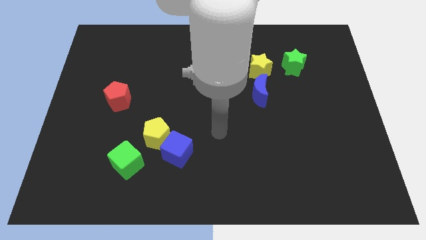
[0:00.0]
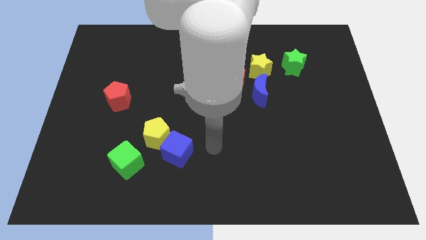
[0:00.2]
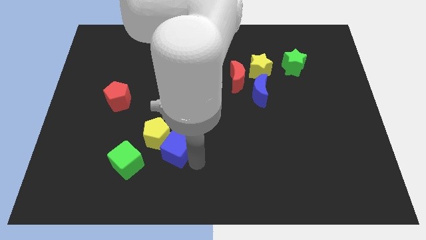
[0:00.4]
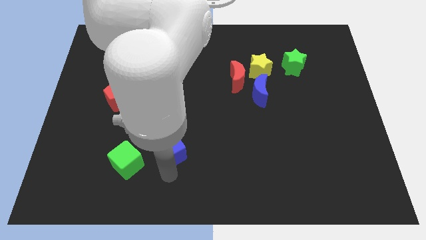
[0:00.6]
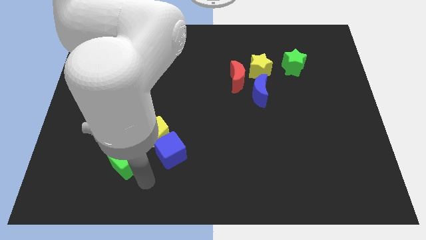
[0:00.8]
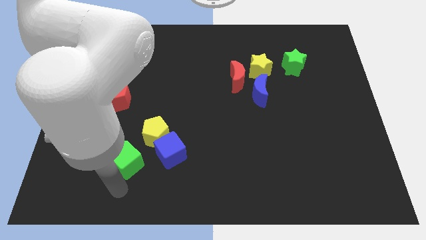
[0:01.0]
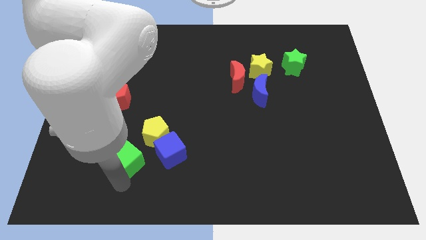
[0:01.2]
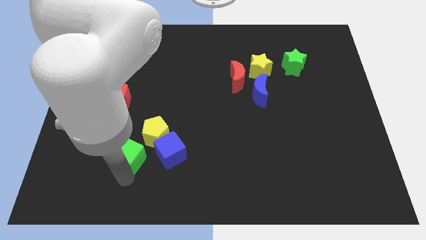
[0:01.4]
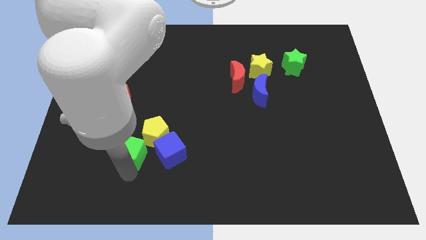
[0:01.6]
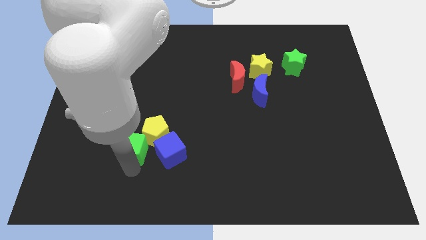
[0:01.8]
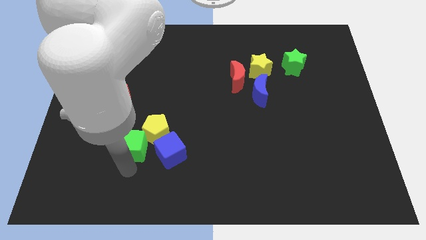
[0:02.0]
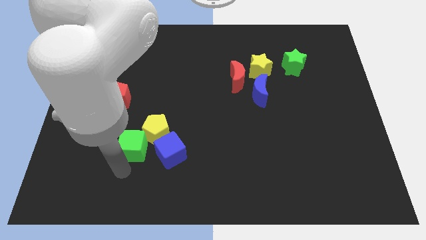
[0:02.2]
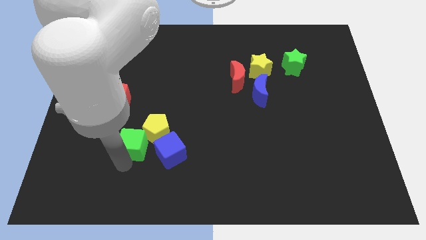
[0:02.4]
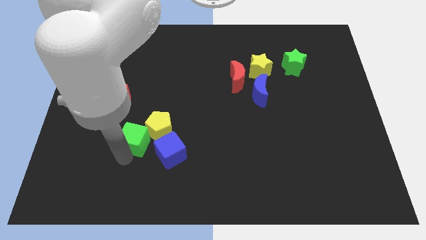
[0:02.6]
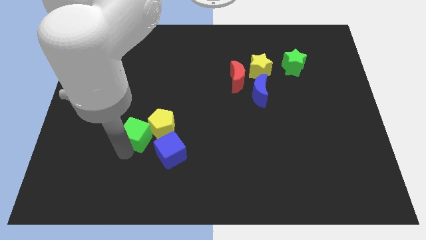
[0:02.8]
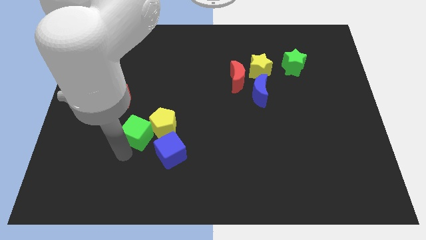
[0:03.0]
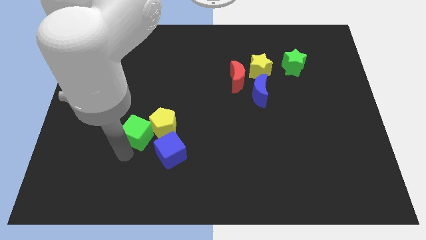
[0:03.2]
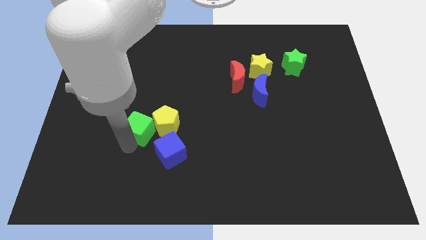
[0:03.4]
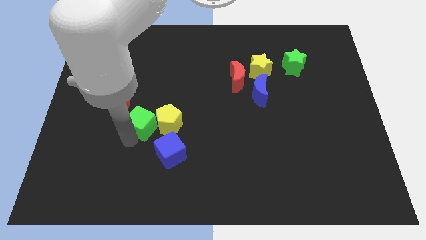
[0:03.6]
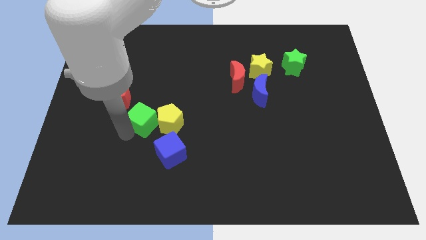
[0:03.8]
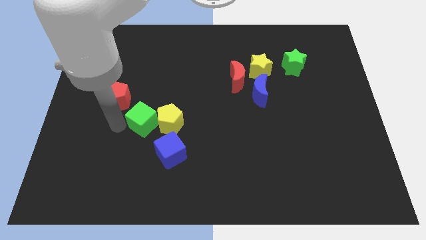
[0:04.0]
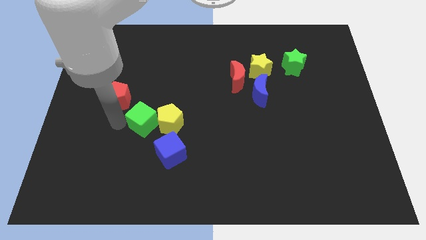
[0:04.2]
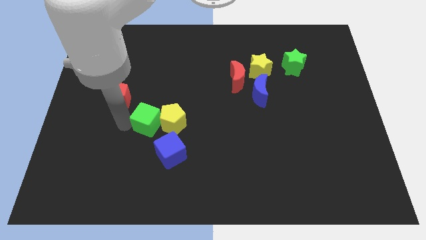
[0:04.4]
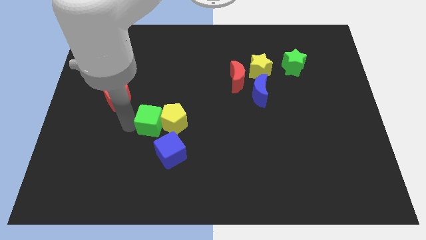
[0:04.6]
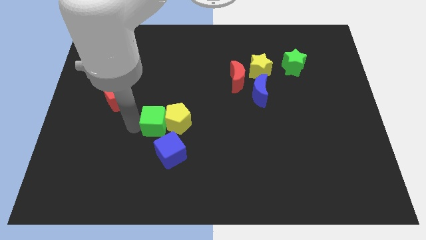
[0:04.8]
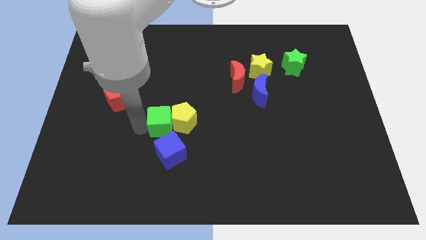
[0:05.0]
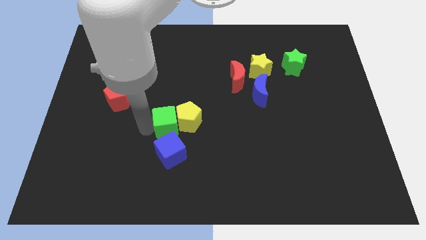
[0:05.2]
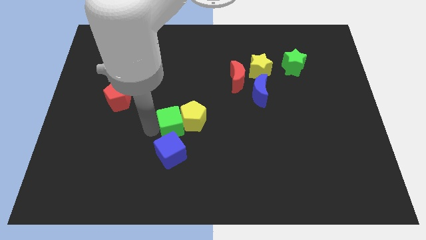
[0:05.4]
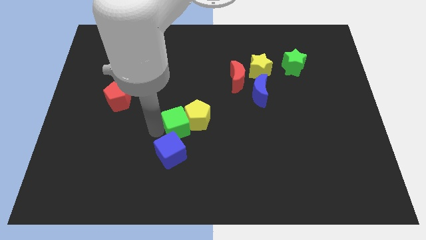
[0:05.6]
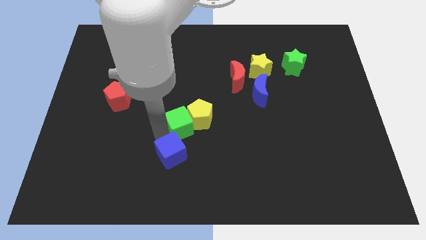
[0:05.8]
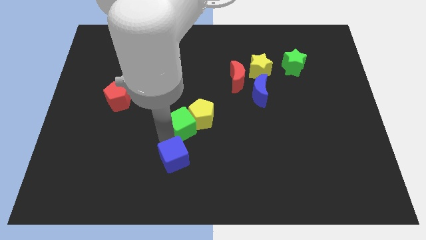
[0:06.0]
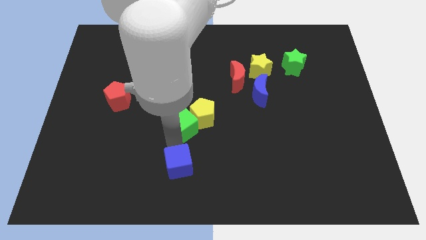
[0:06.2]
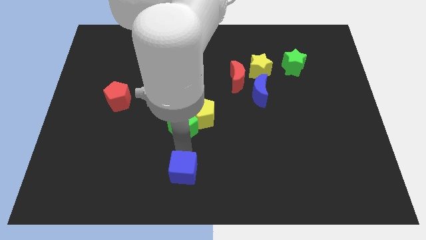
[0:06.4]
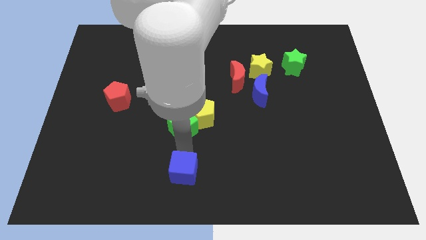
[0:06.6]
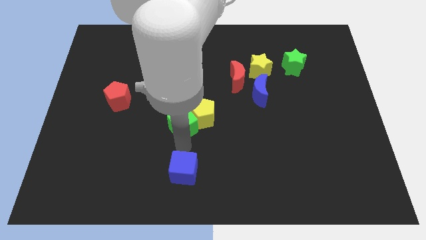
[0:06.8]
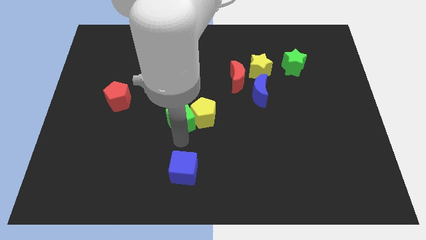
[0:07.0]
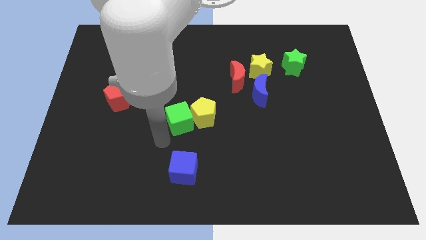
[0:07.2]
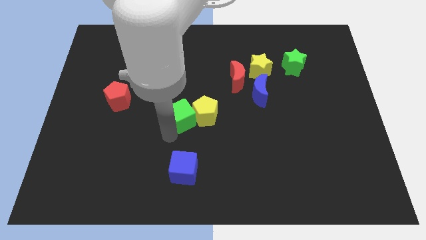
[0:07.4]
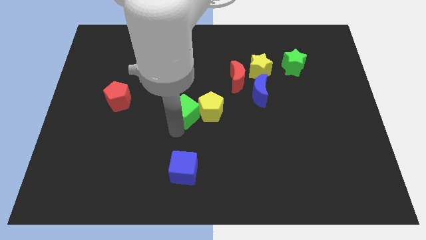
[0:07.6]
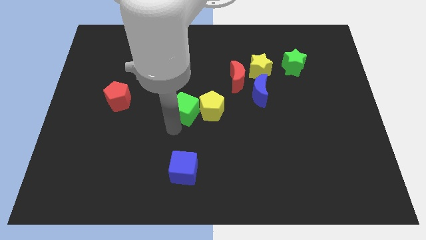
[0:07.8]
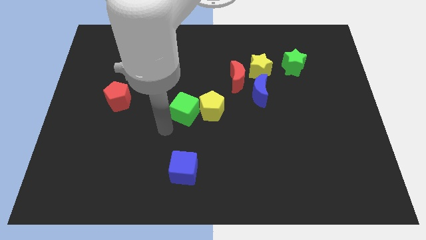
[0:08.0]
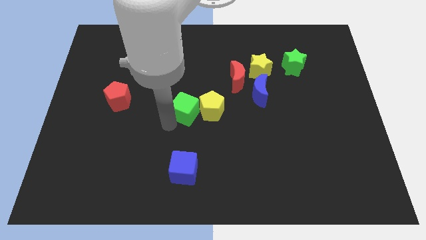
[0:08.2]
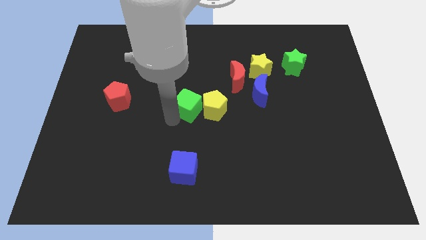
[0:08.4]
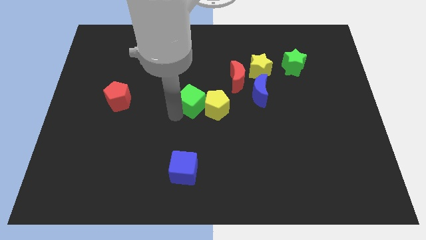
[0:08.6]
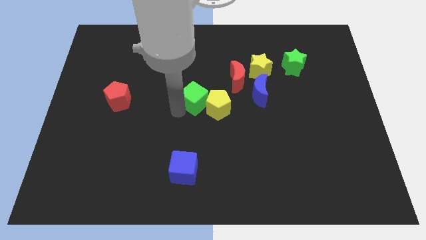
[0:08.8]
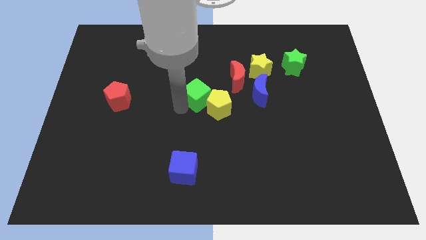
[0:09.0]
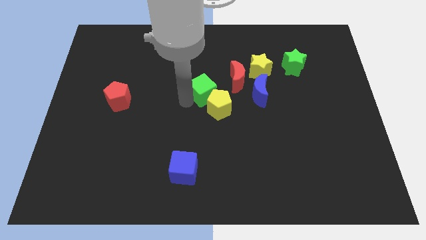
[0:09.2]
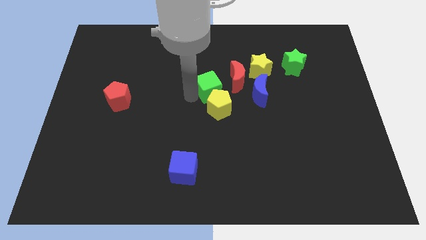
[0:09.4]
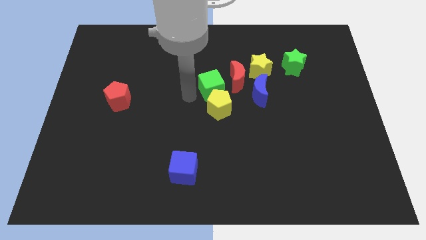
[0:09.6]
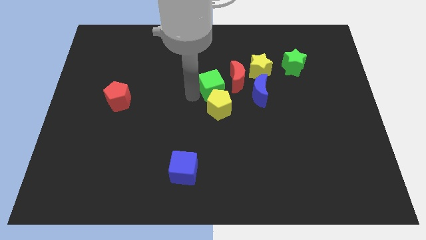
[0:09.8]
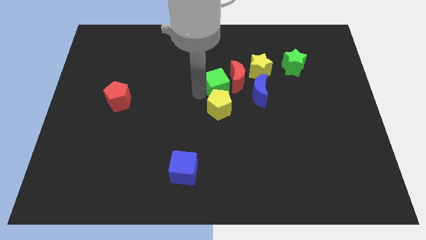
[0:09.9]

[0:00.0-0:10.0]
put the green cube next to the red moon
